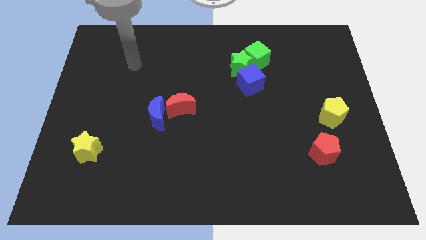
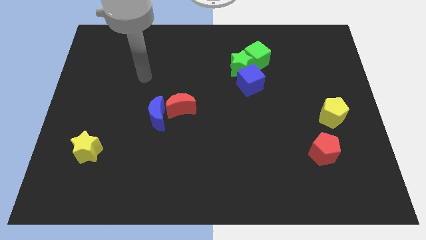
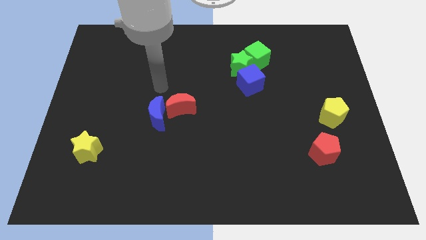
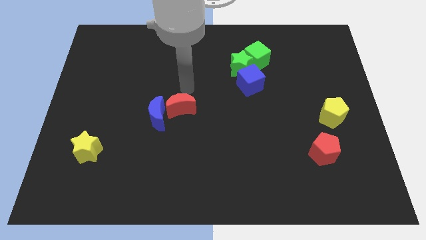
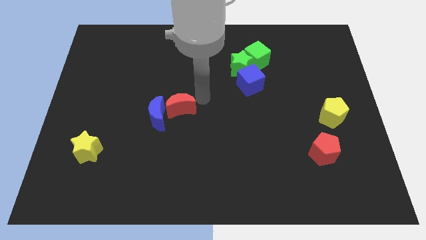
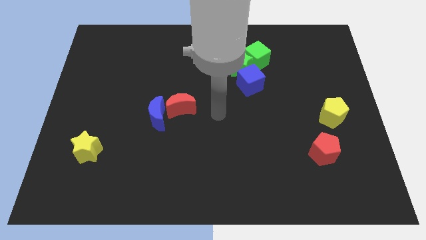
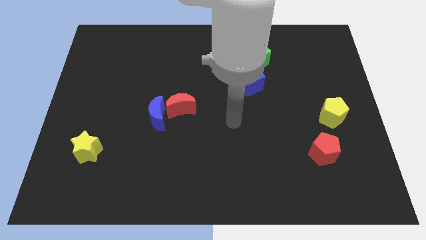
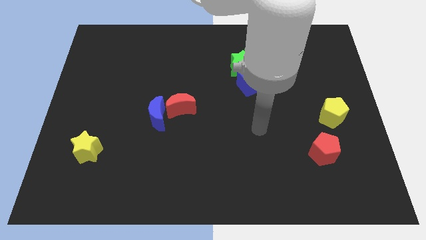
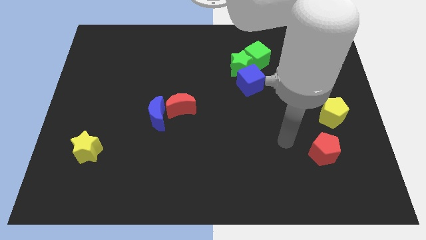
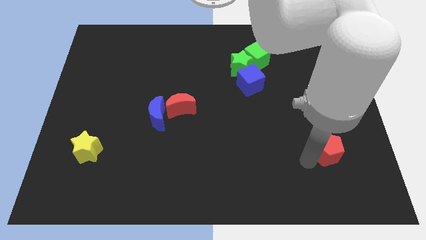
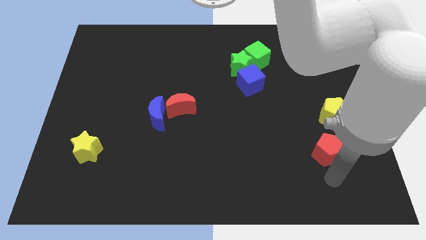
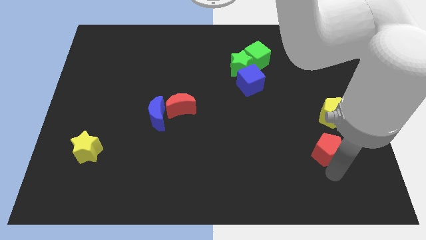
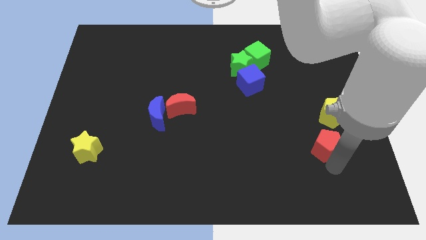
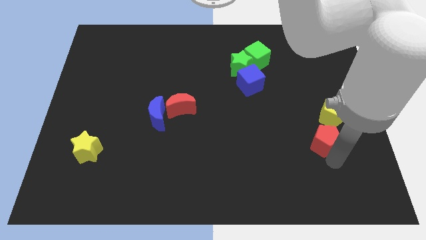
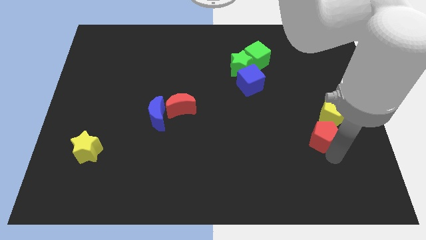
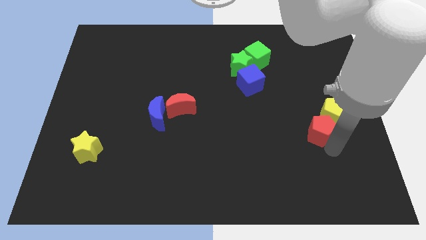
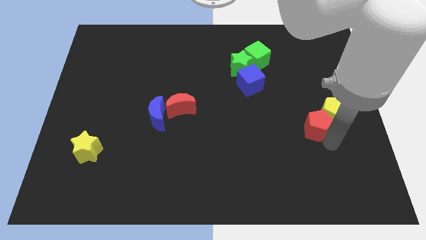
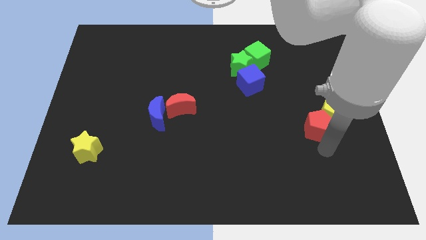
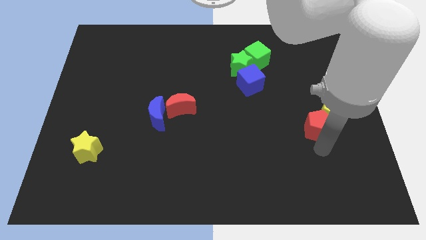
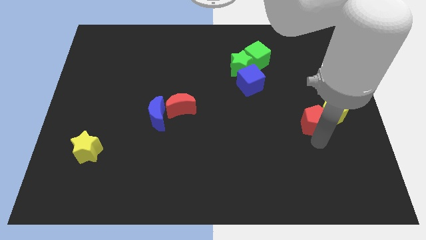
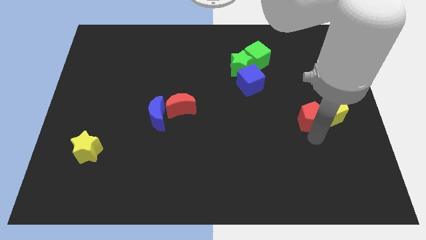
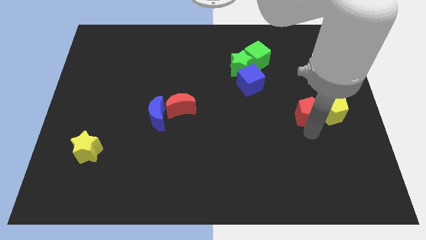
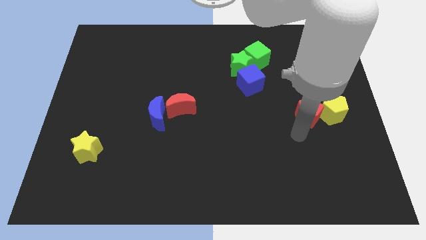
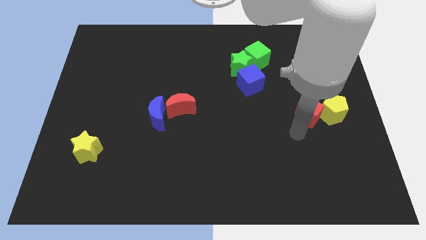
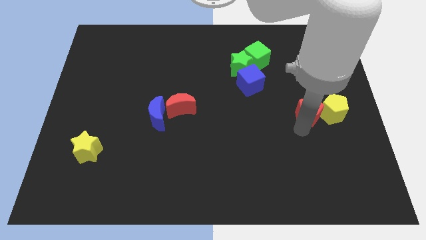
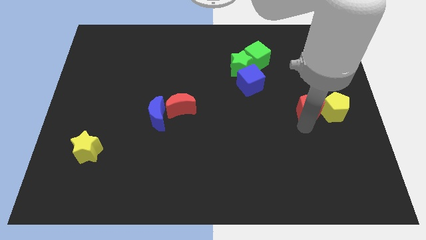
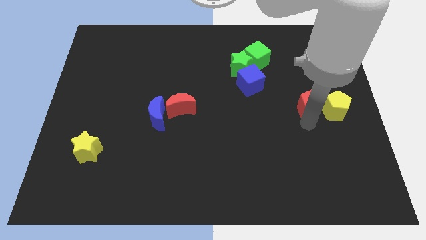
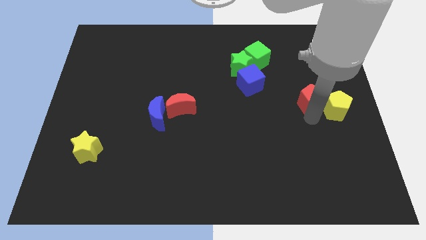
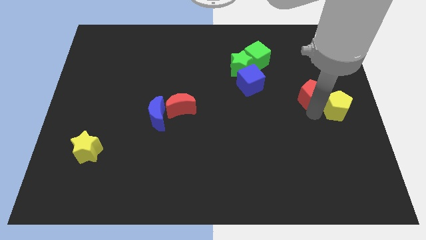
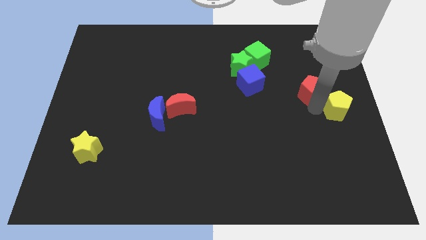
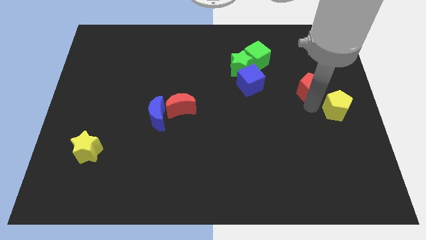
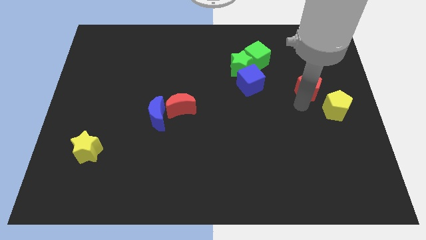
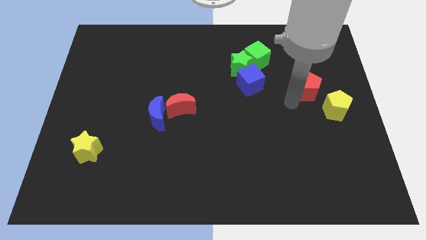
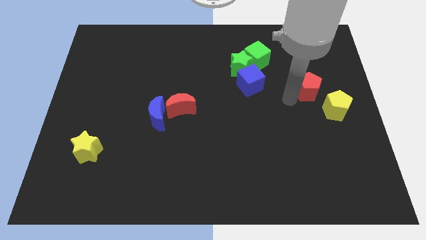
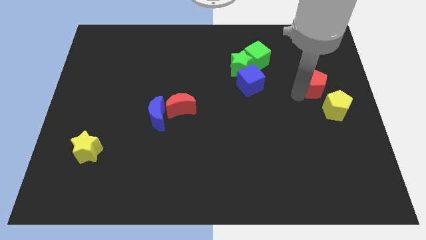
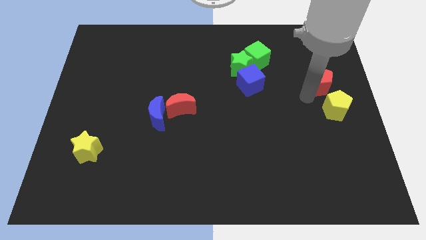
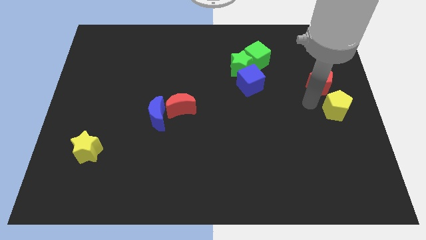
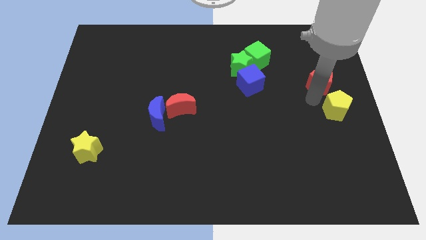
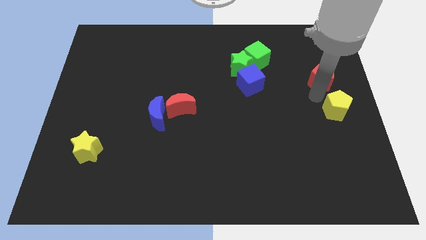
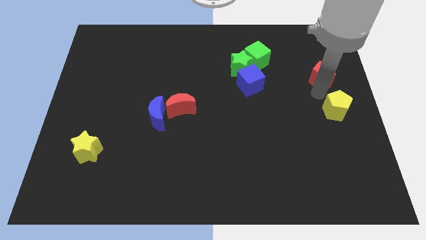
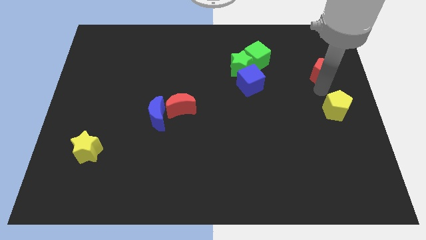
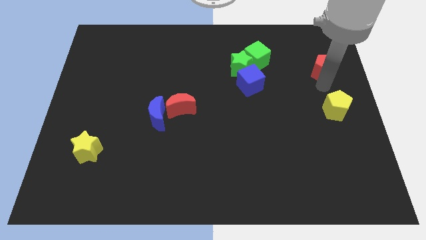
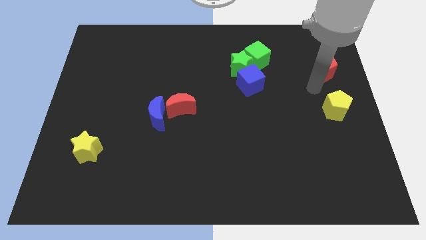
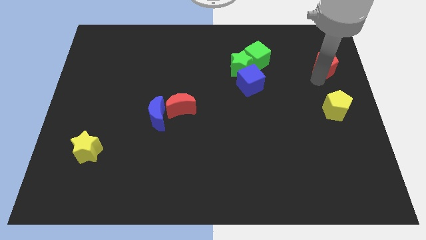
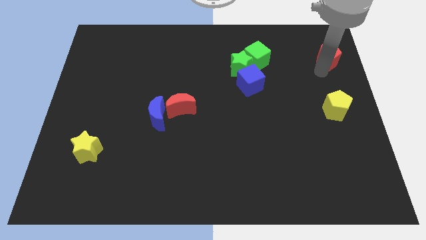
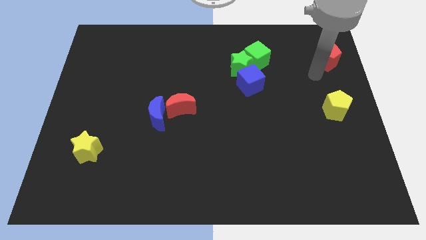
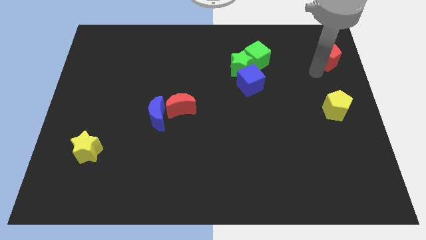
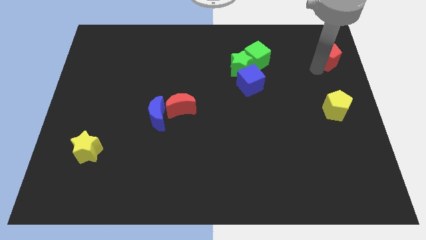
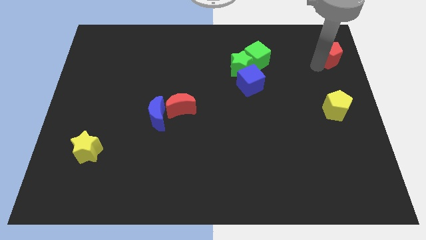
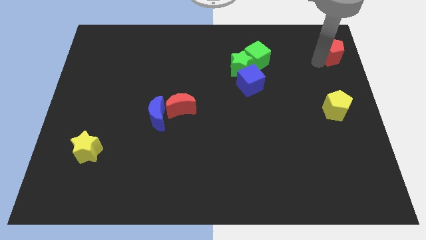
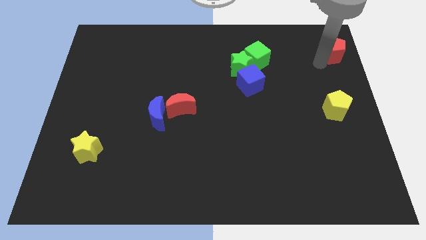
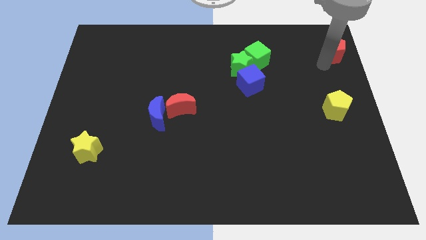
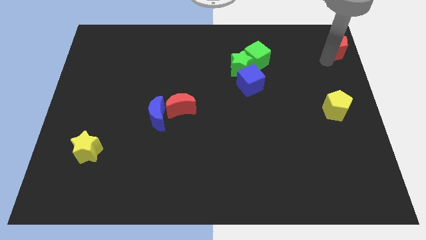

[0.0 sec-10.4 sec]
push the red pentagon to the upper right corner

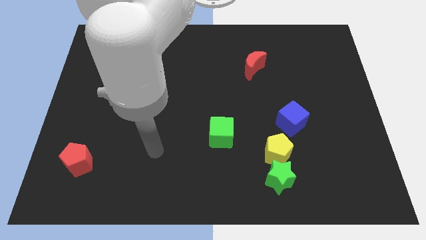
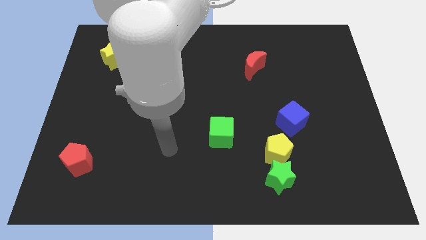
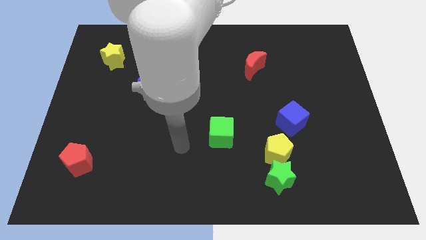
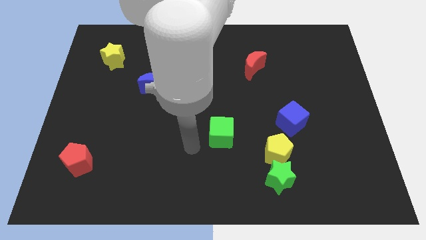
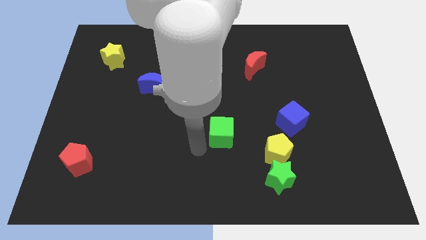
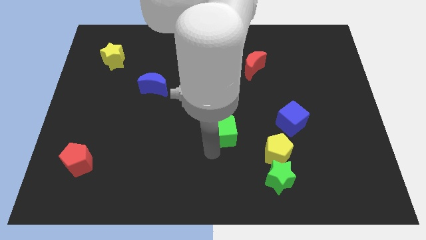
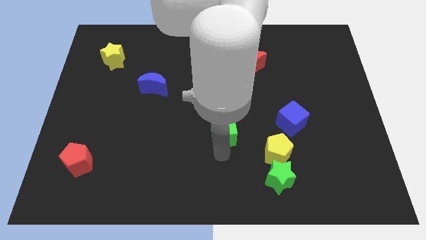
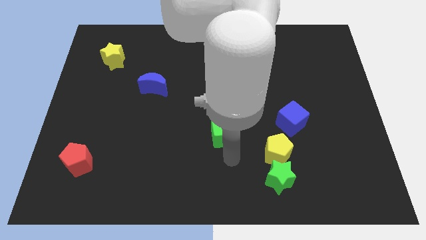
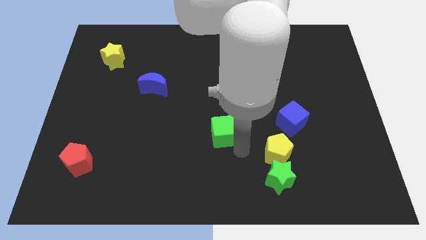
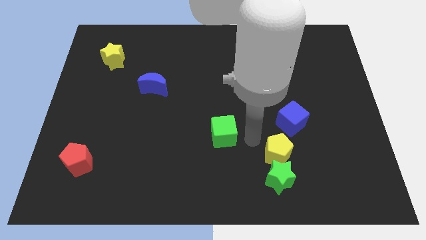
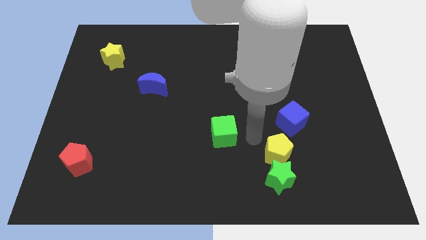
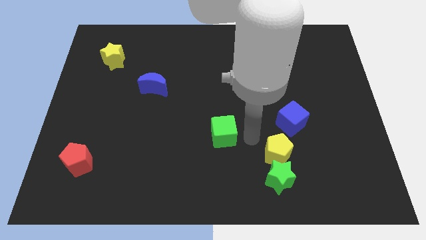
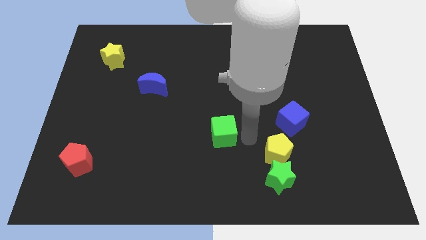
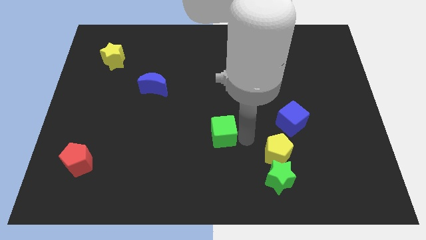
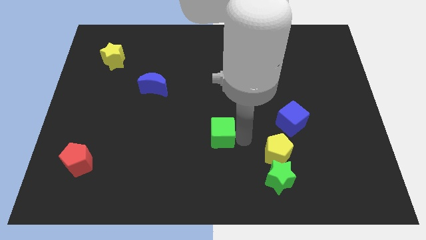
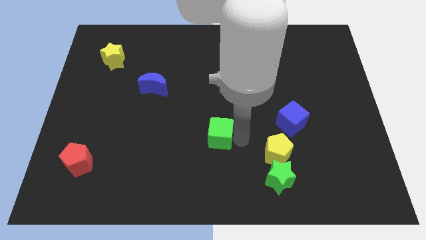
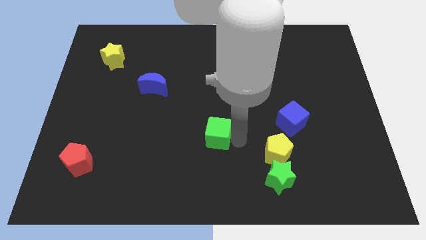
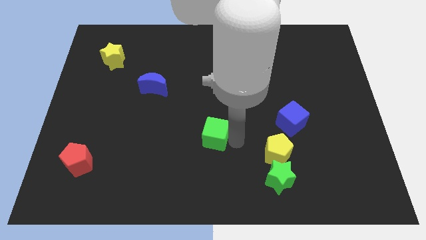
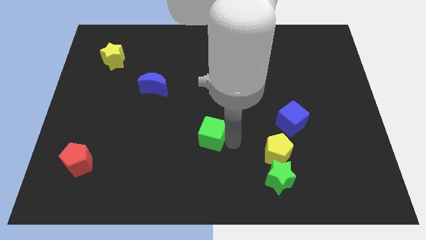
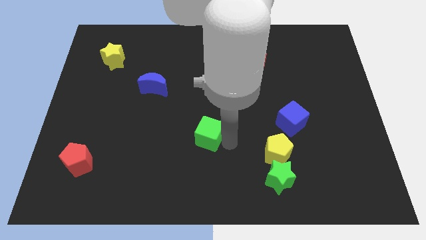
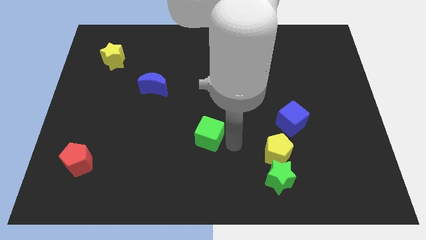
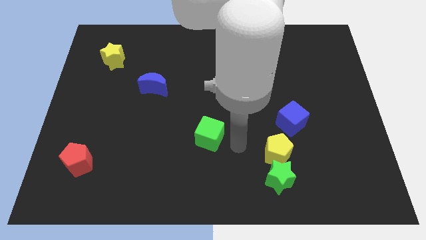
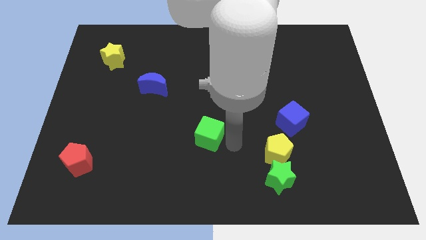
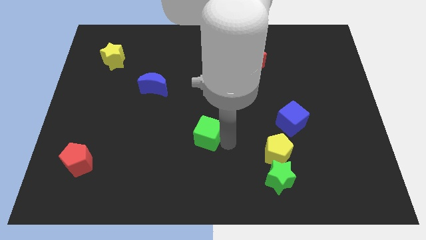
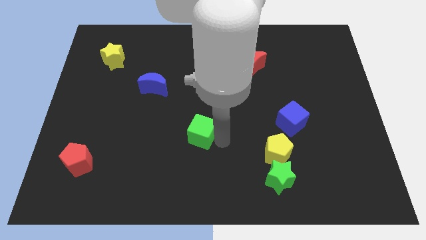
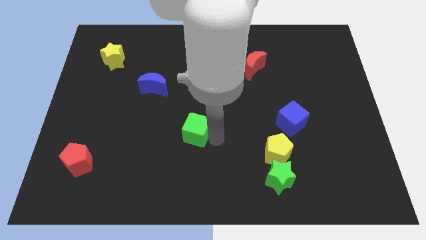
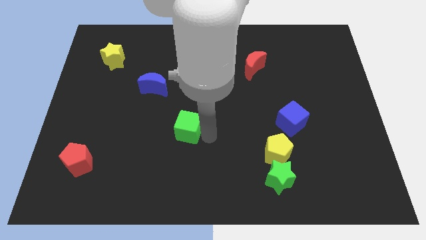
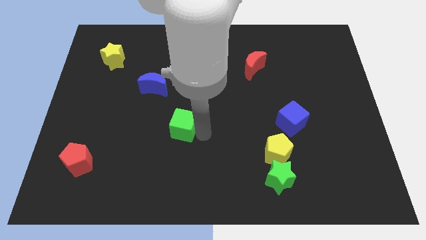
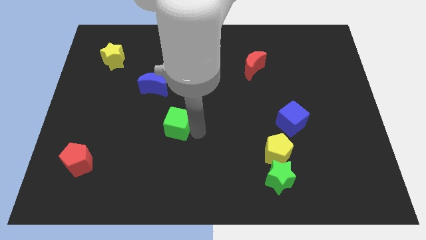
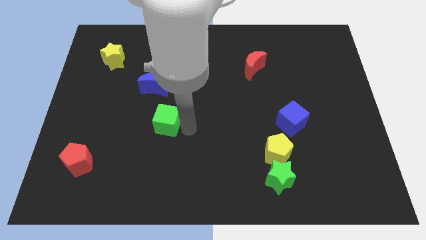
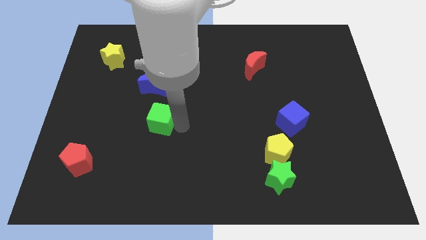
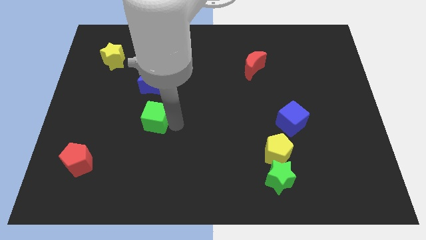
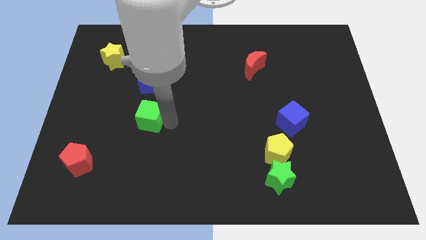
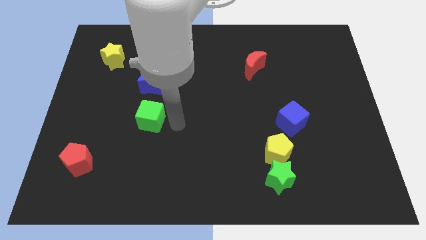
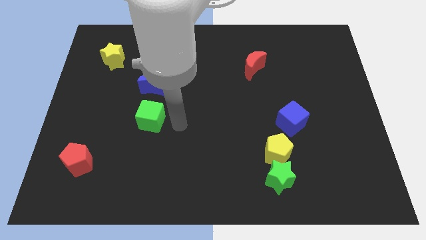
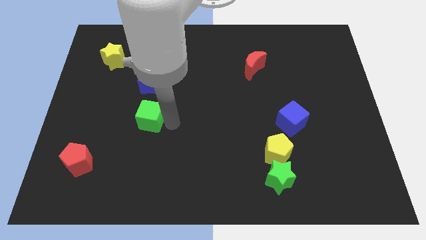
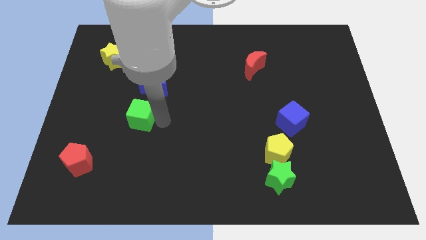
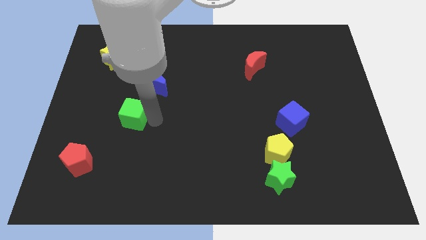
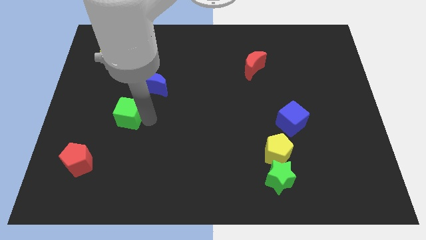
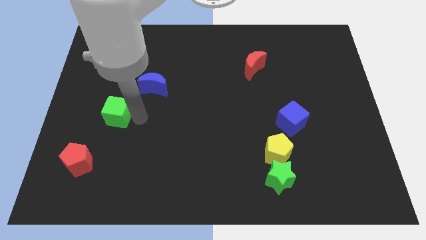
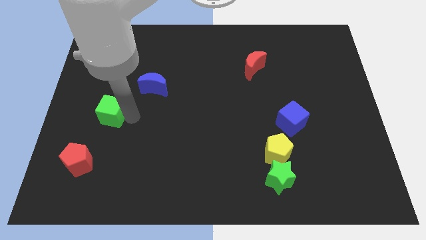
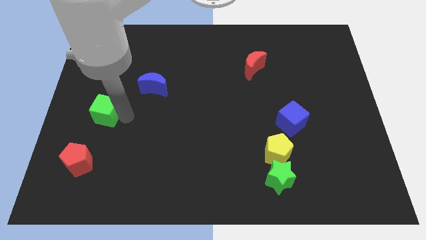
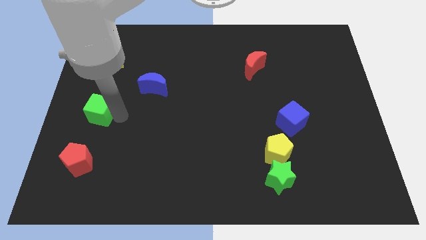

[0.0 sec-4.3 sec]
put the green cube to the left side of the board
